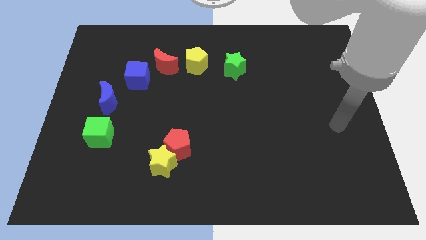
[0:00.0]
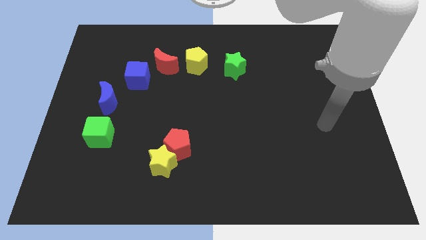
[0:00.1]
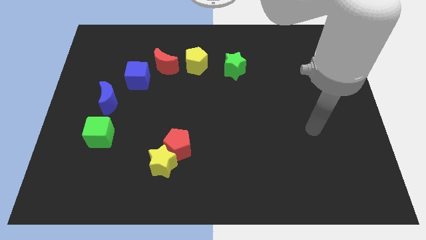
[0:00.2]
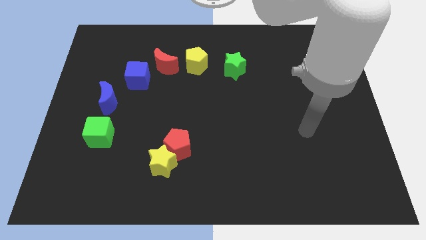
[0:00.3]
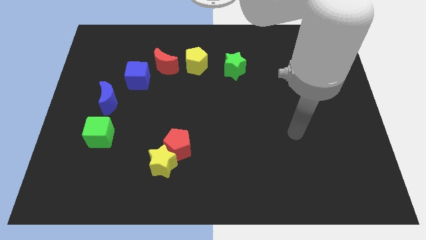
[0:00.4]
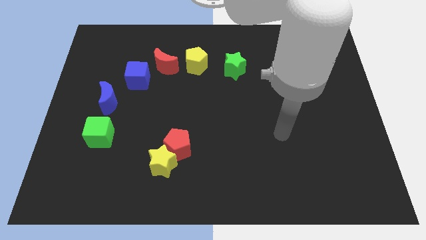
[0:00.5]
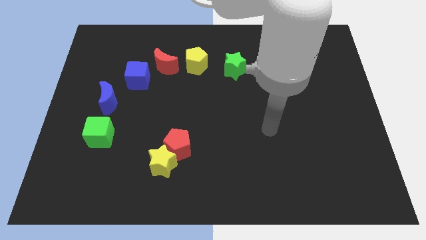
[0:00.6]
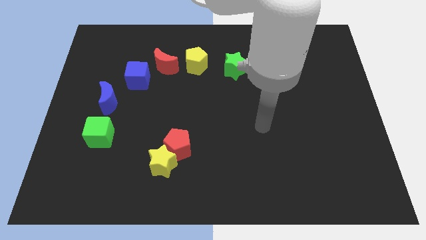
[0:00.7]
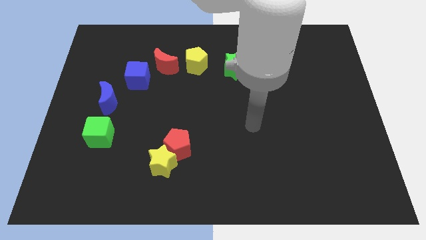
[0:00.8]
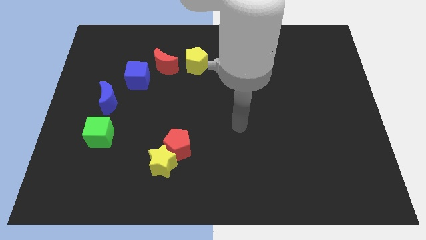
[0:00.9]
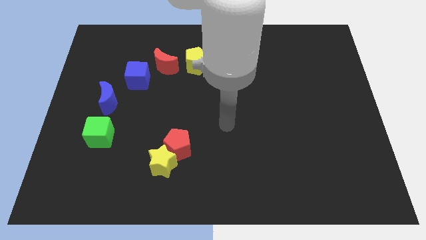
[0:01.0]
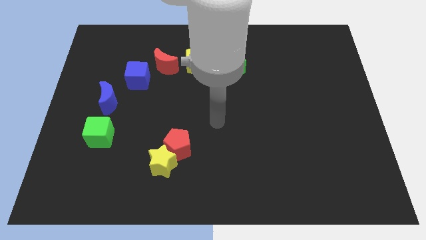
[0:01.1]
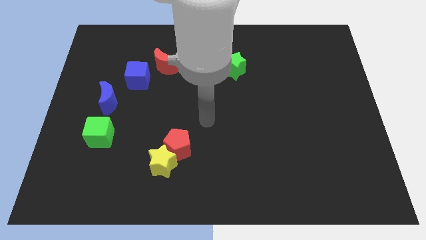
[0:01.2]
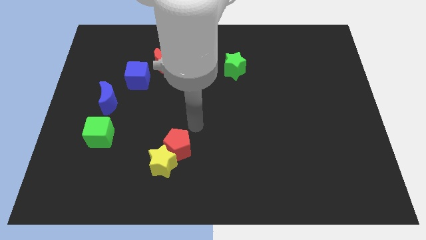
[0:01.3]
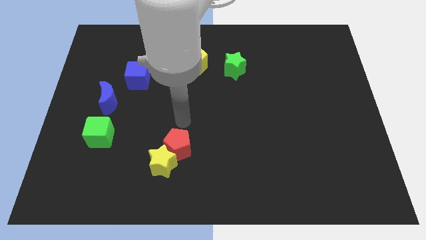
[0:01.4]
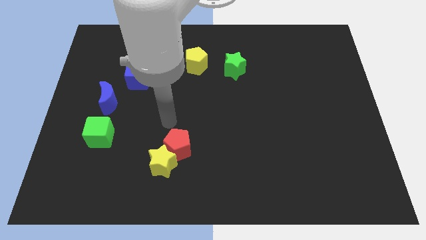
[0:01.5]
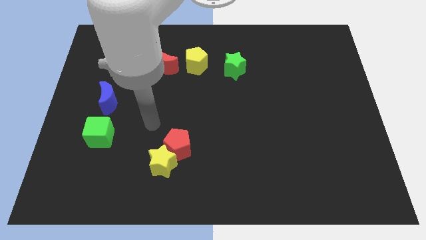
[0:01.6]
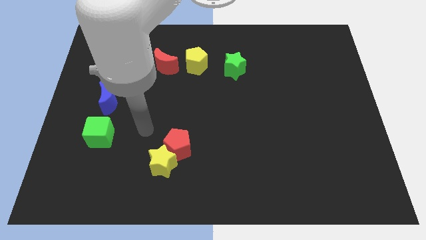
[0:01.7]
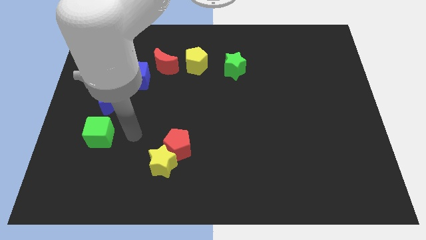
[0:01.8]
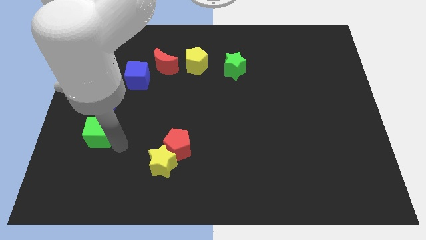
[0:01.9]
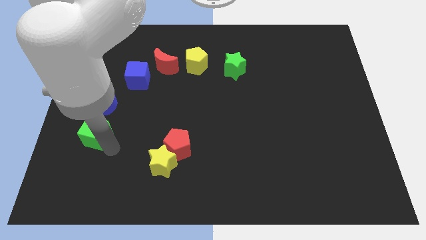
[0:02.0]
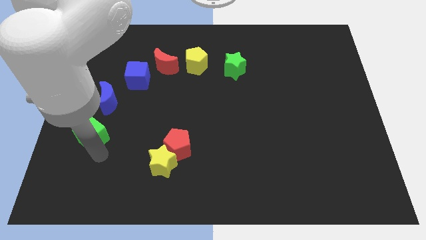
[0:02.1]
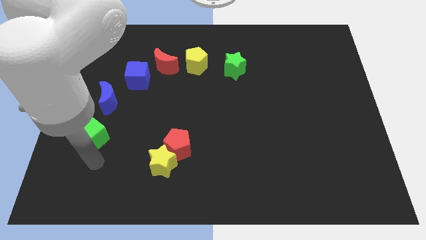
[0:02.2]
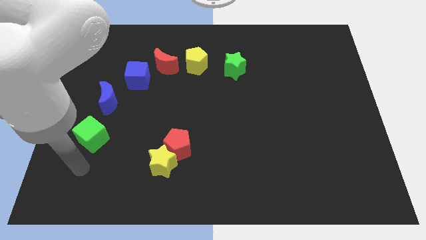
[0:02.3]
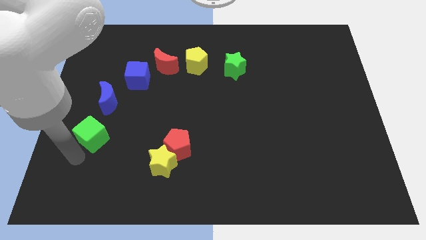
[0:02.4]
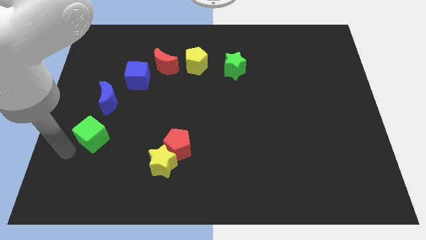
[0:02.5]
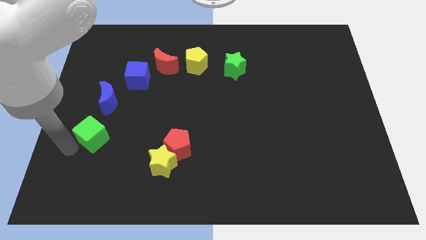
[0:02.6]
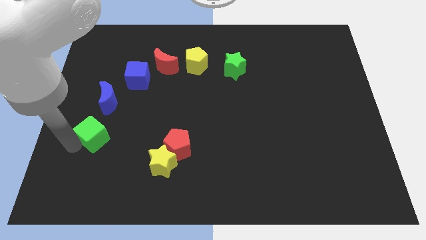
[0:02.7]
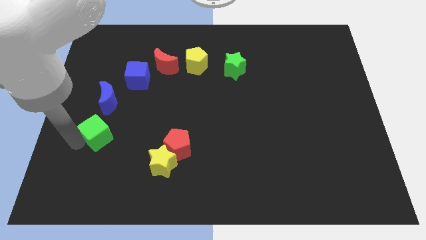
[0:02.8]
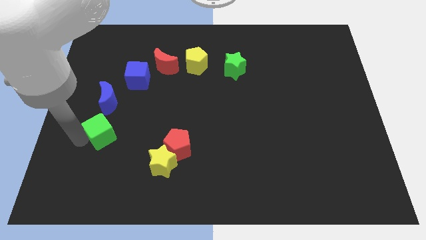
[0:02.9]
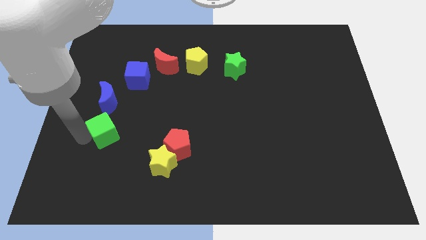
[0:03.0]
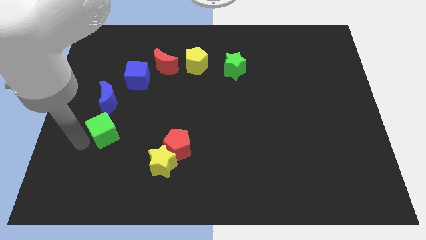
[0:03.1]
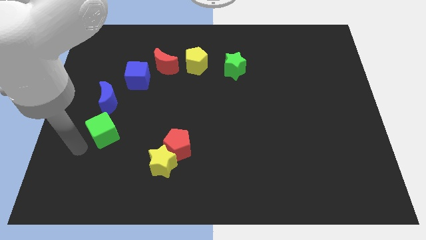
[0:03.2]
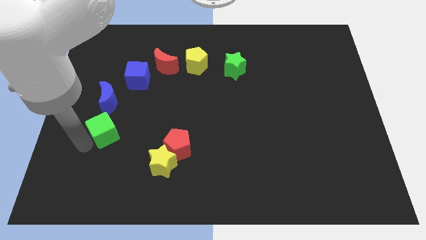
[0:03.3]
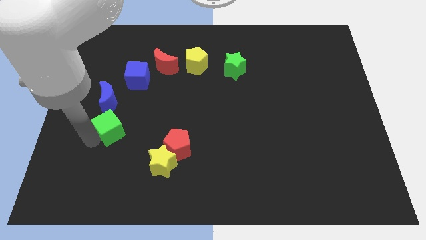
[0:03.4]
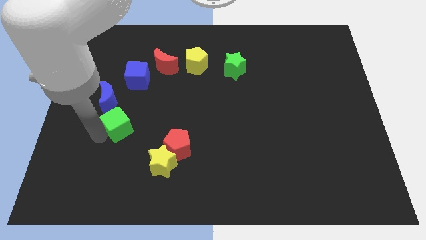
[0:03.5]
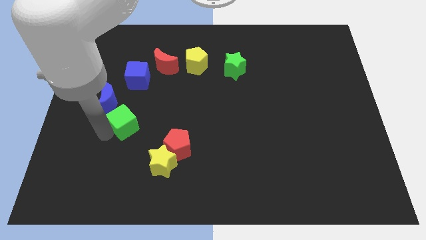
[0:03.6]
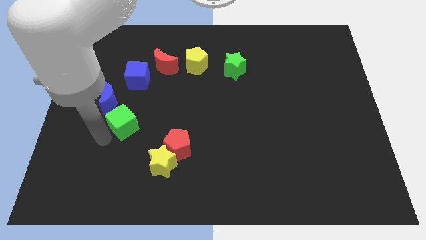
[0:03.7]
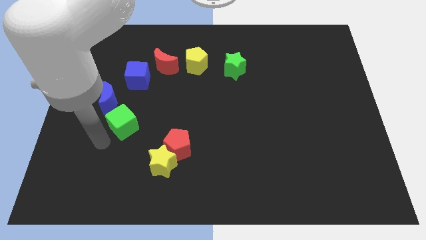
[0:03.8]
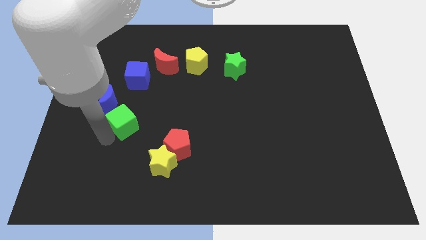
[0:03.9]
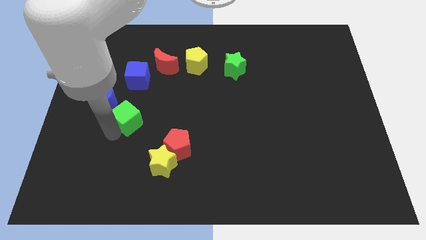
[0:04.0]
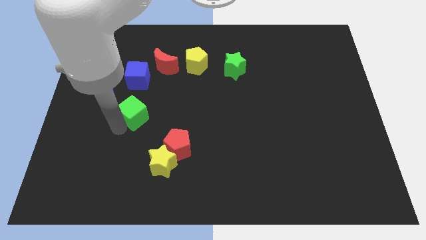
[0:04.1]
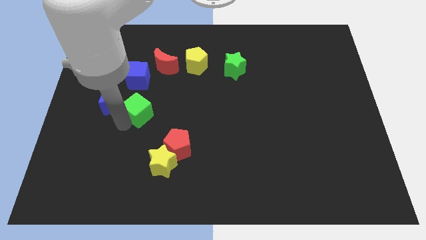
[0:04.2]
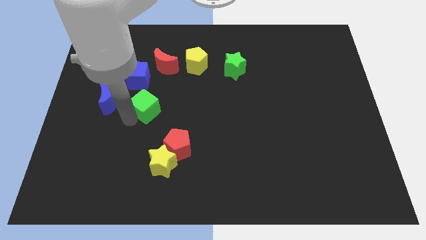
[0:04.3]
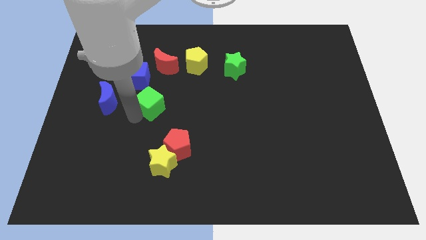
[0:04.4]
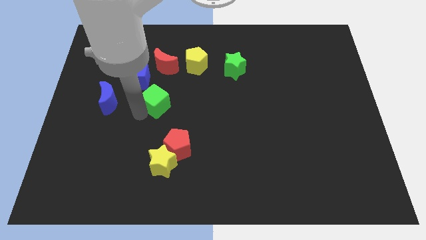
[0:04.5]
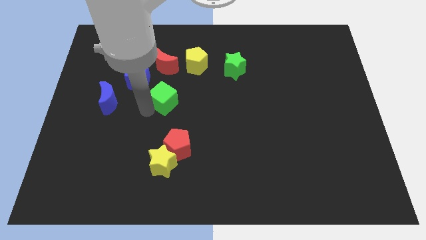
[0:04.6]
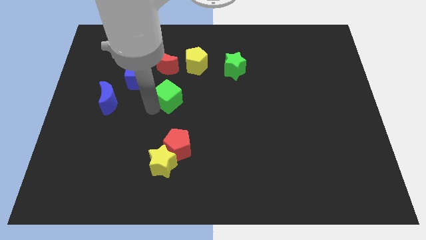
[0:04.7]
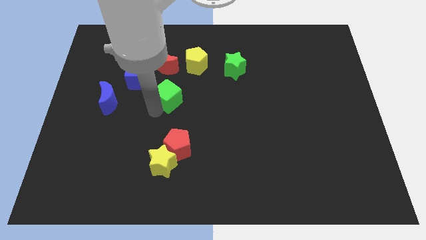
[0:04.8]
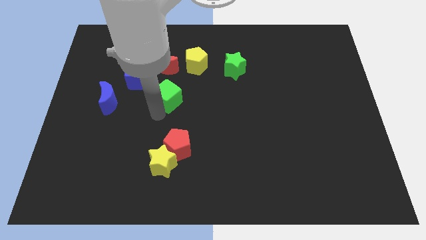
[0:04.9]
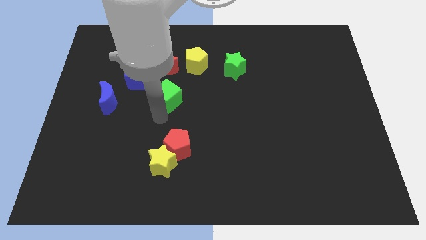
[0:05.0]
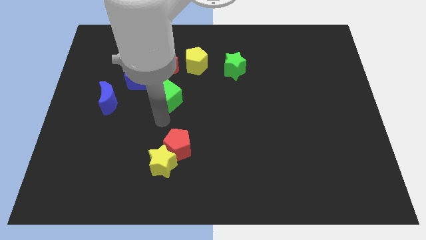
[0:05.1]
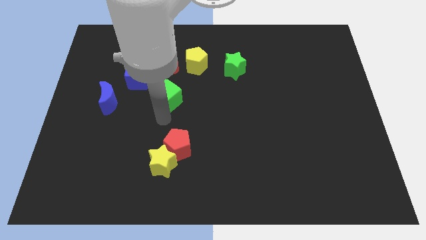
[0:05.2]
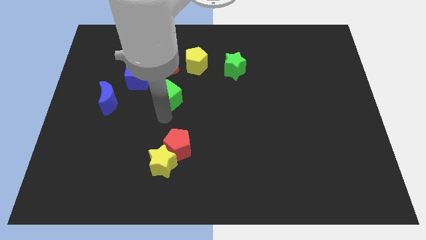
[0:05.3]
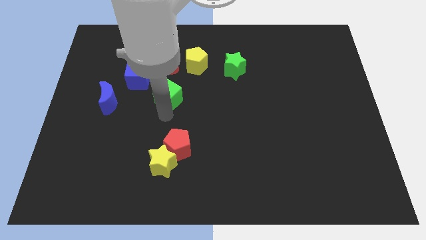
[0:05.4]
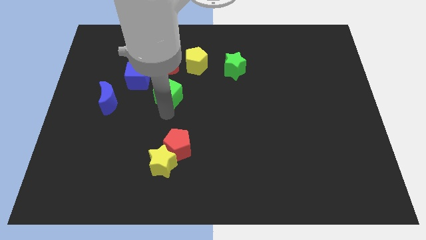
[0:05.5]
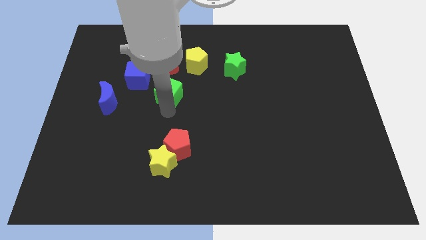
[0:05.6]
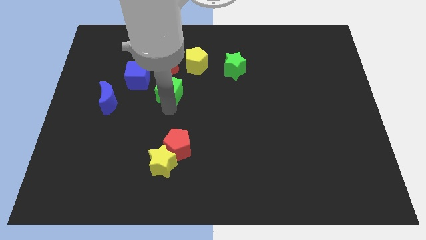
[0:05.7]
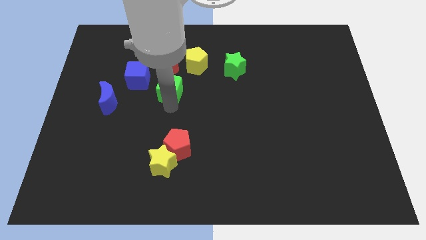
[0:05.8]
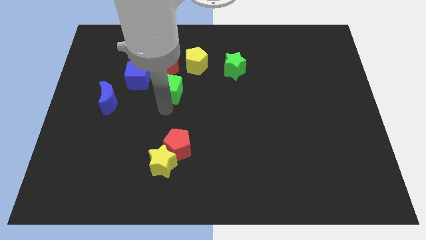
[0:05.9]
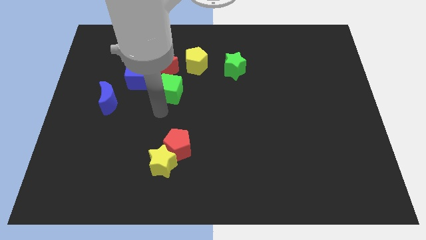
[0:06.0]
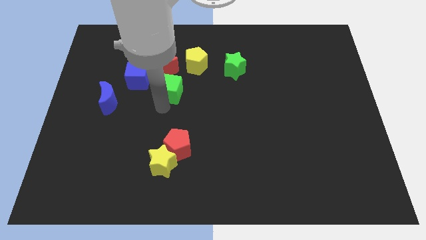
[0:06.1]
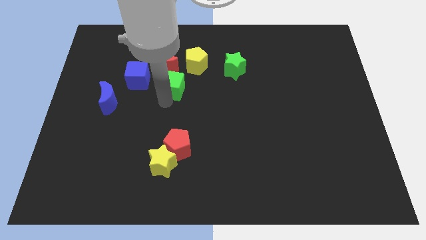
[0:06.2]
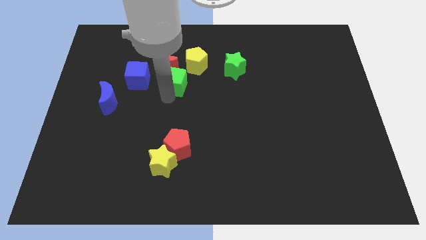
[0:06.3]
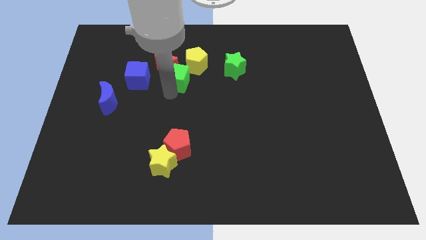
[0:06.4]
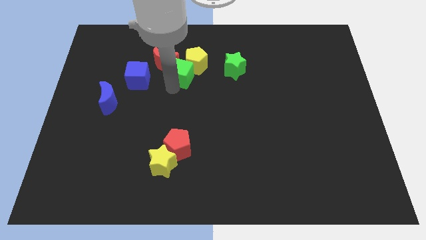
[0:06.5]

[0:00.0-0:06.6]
push the green cube close to the yellow pentagon

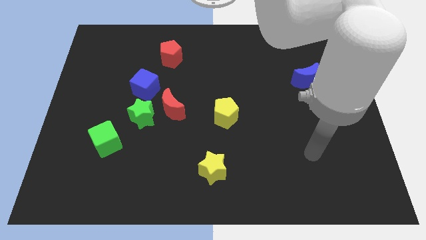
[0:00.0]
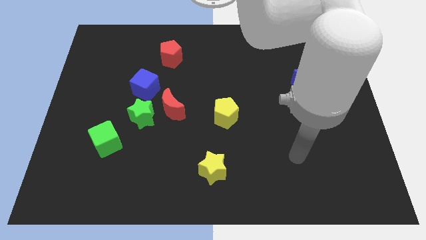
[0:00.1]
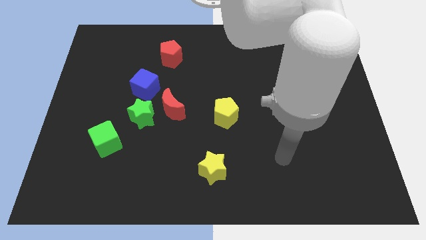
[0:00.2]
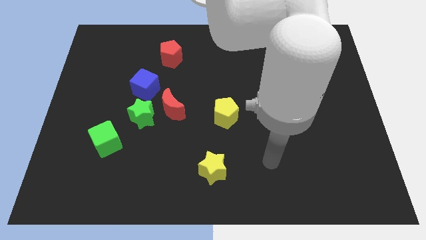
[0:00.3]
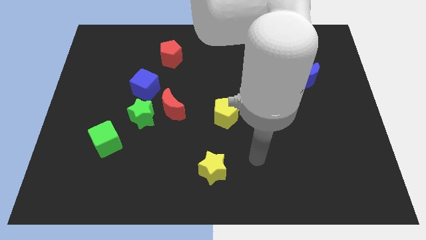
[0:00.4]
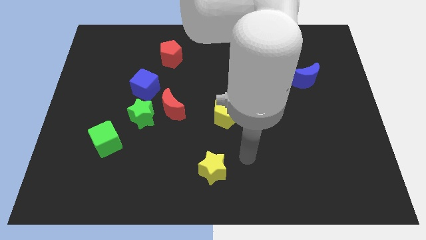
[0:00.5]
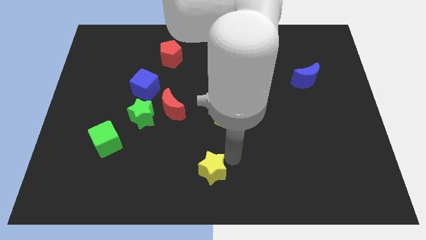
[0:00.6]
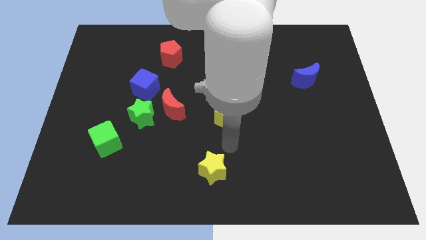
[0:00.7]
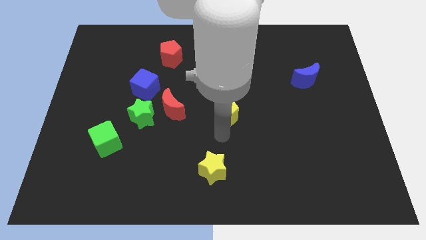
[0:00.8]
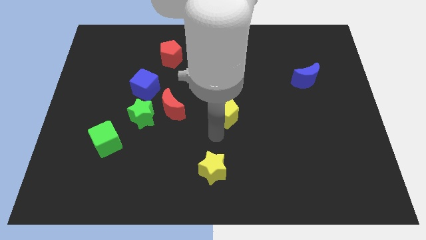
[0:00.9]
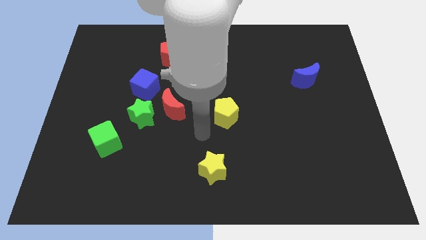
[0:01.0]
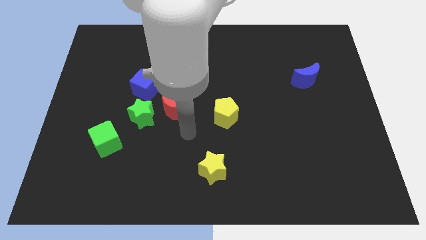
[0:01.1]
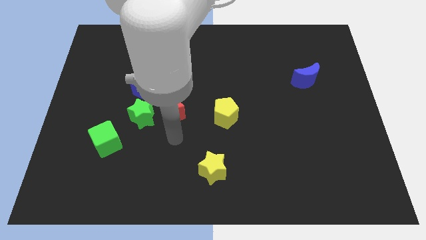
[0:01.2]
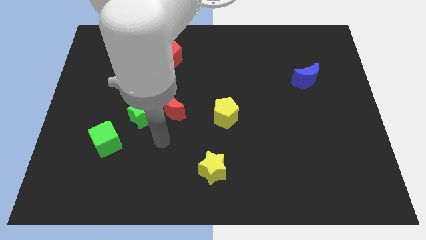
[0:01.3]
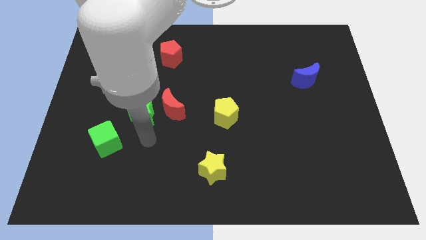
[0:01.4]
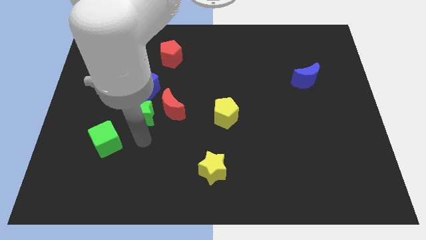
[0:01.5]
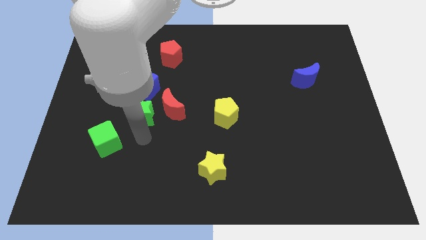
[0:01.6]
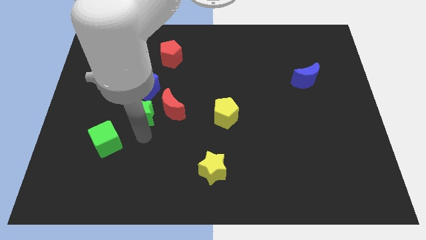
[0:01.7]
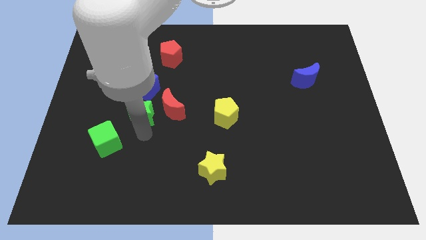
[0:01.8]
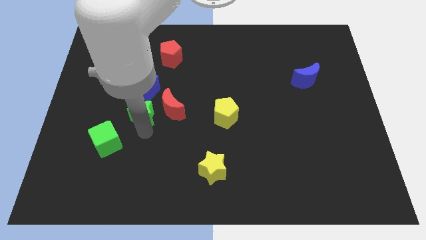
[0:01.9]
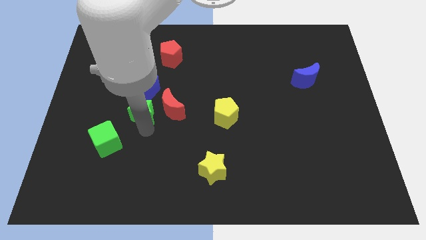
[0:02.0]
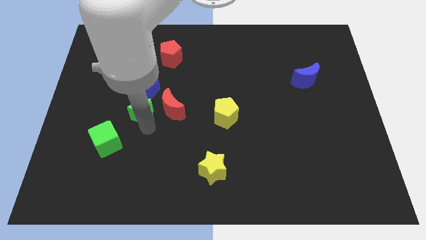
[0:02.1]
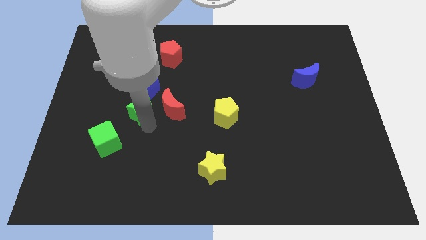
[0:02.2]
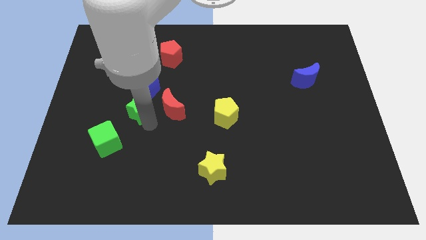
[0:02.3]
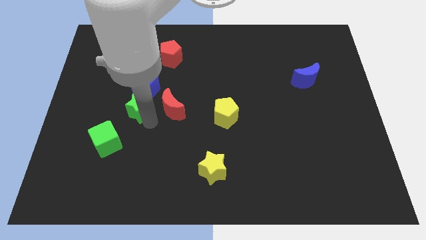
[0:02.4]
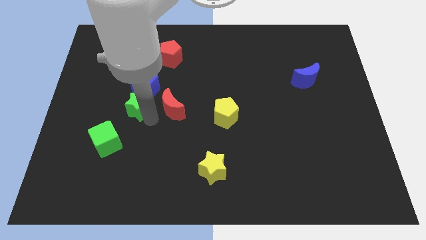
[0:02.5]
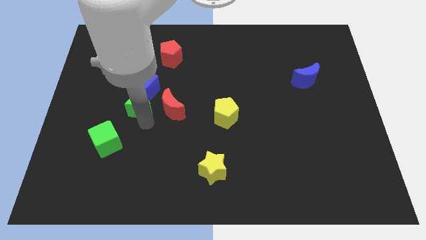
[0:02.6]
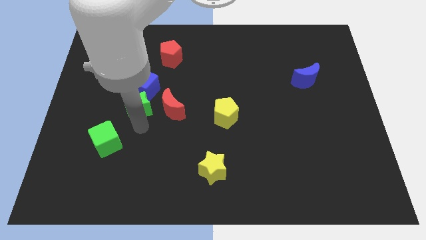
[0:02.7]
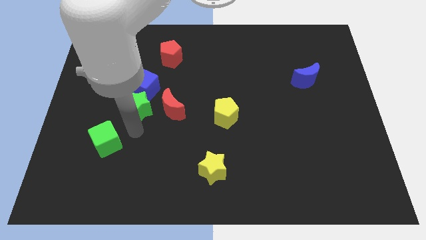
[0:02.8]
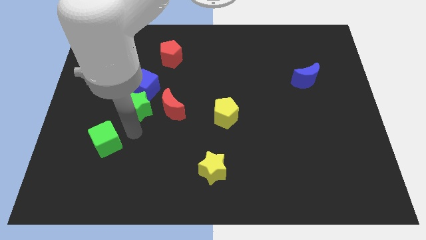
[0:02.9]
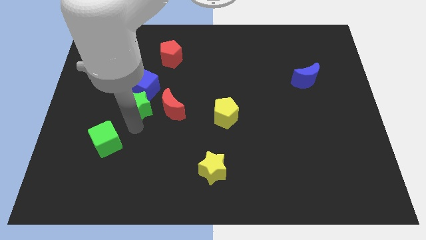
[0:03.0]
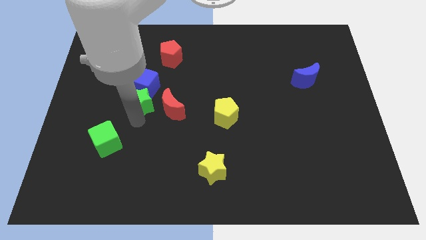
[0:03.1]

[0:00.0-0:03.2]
move the green star next to the blue cube
